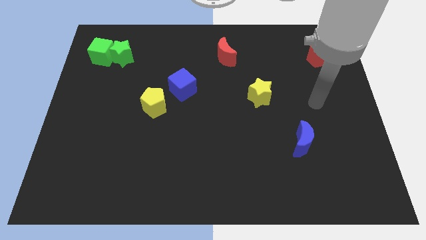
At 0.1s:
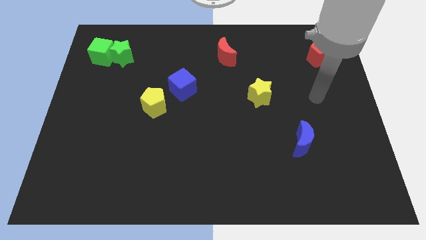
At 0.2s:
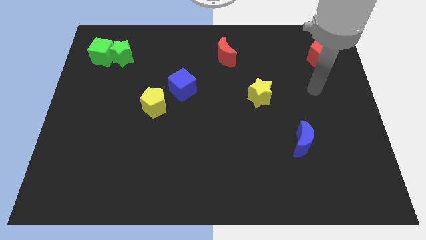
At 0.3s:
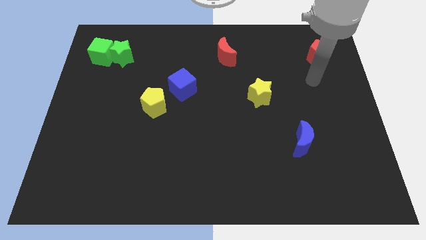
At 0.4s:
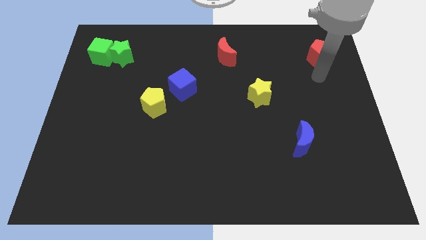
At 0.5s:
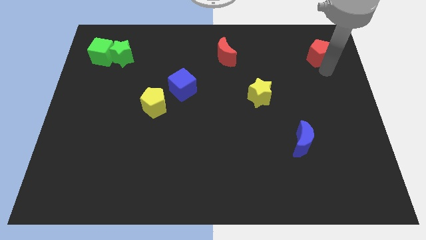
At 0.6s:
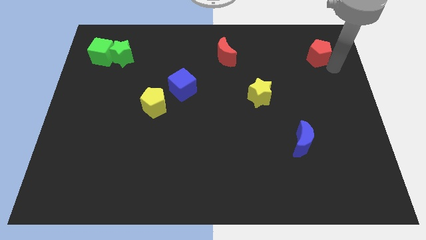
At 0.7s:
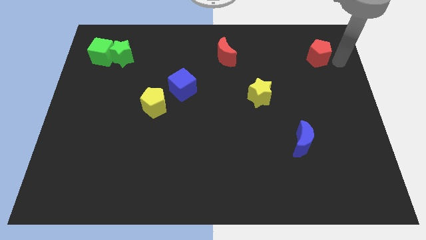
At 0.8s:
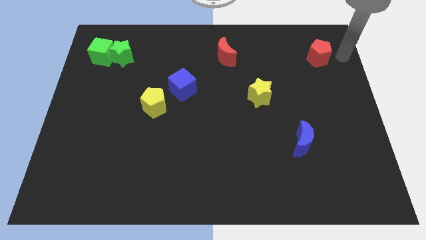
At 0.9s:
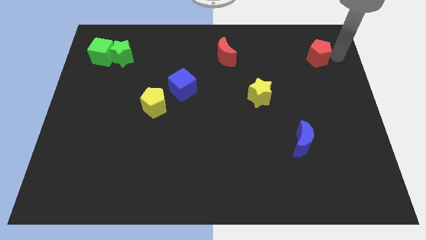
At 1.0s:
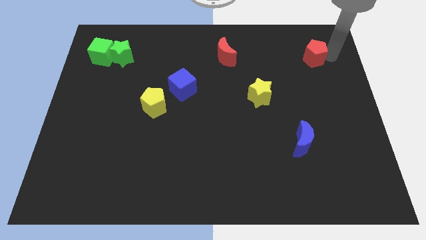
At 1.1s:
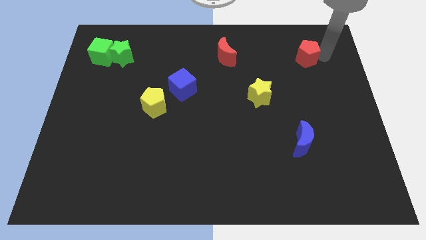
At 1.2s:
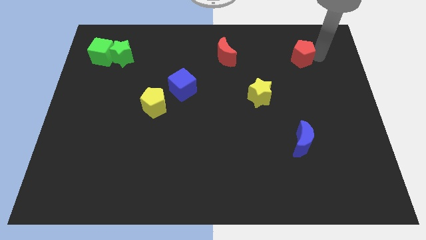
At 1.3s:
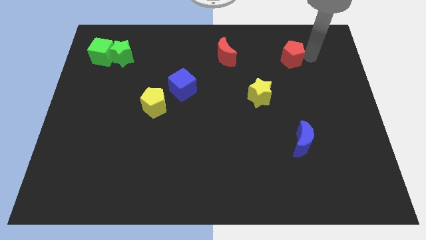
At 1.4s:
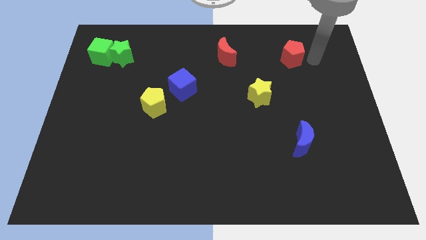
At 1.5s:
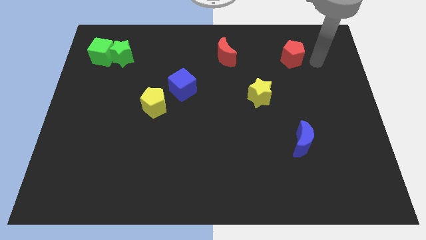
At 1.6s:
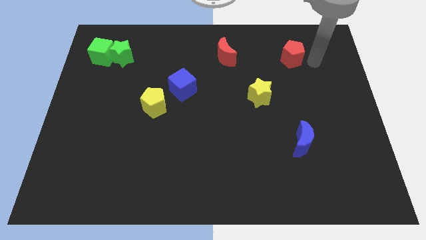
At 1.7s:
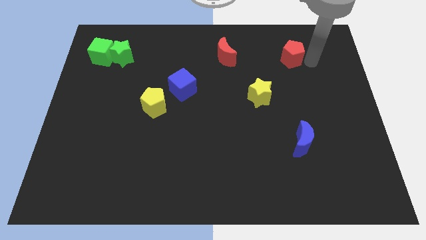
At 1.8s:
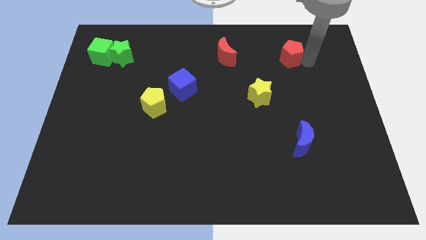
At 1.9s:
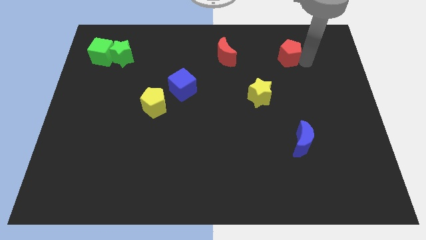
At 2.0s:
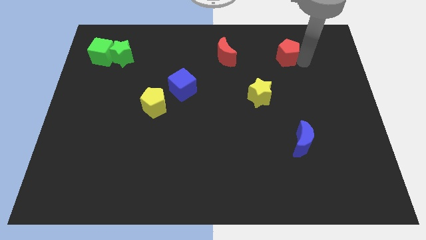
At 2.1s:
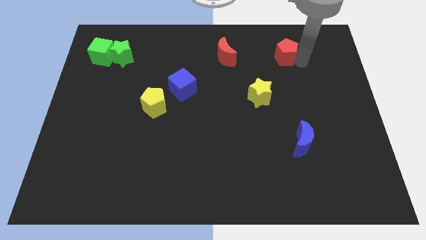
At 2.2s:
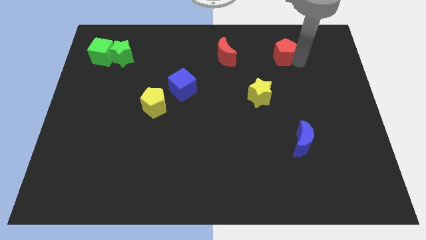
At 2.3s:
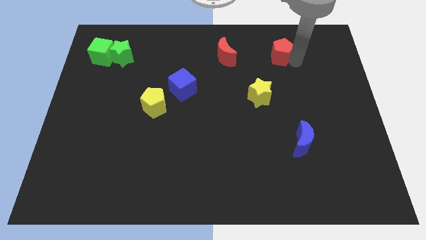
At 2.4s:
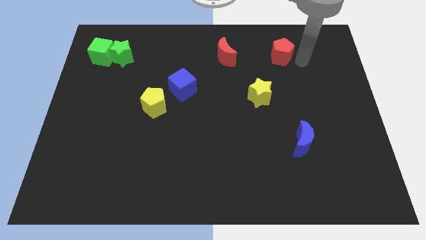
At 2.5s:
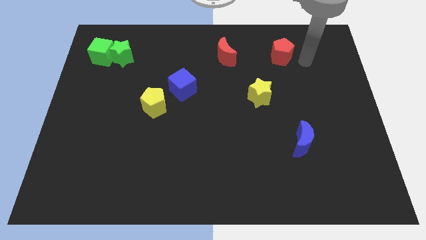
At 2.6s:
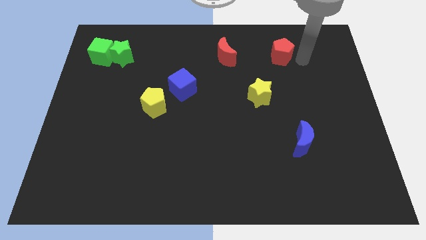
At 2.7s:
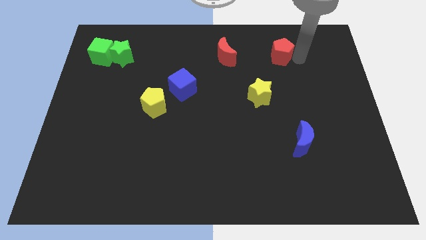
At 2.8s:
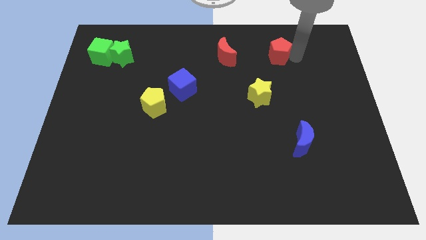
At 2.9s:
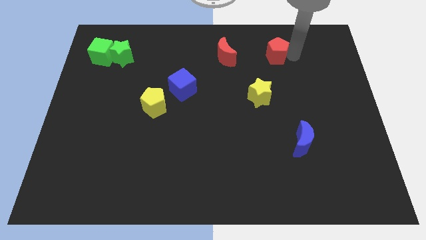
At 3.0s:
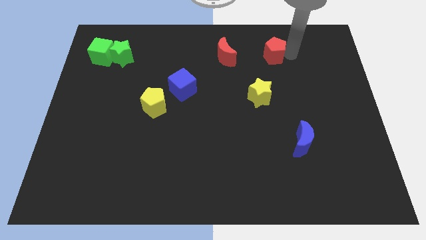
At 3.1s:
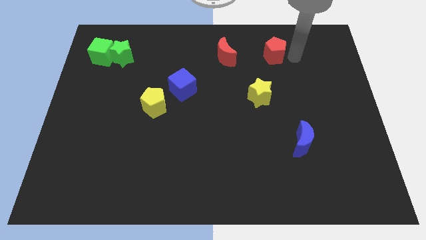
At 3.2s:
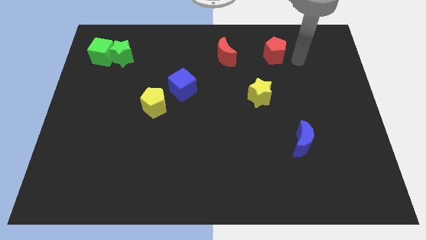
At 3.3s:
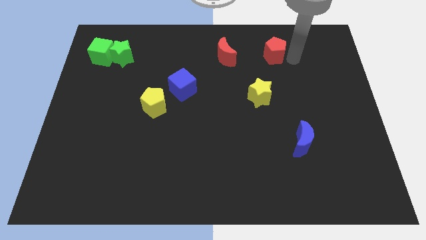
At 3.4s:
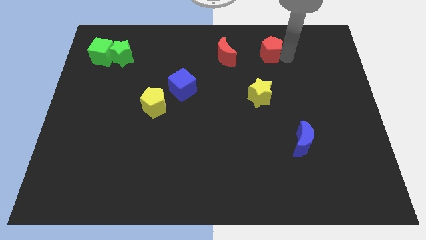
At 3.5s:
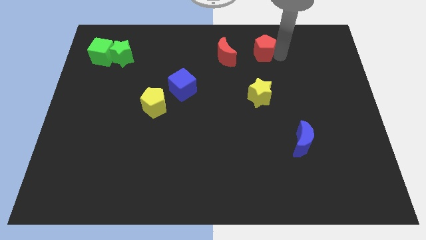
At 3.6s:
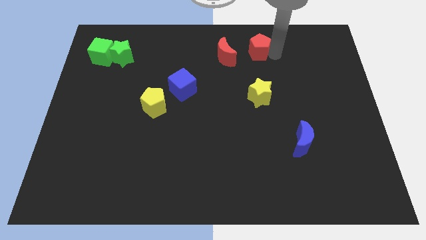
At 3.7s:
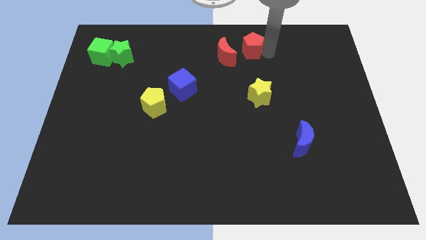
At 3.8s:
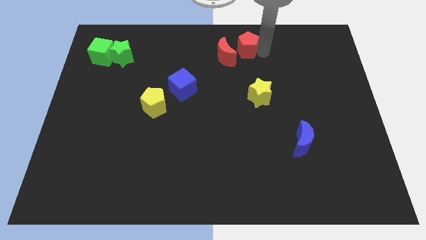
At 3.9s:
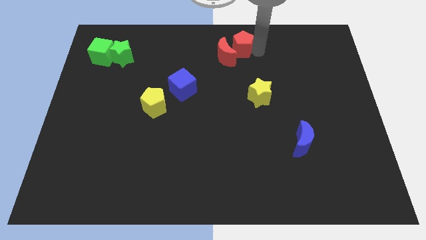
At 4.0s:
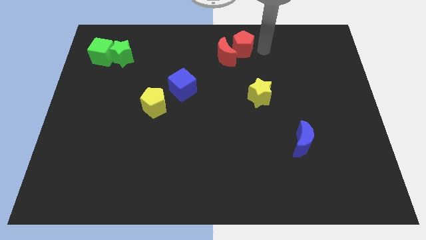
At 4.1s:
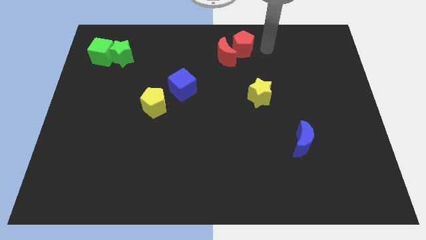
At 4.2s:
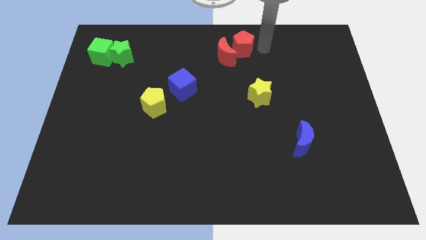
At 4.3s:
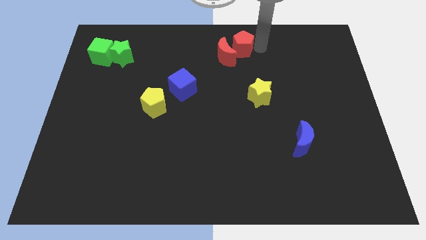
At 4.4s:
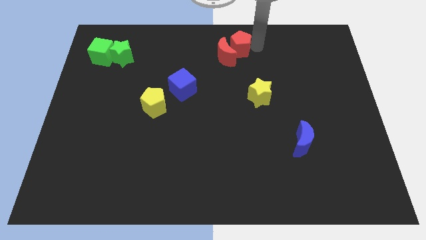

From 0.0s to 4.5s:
move the red pentagon to the left

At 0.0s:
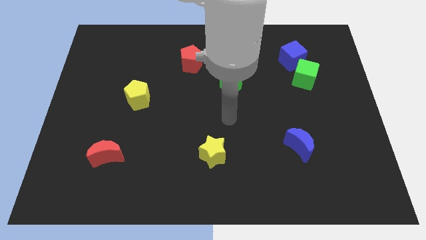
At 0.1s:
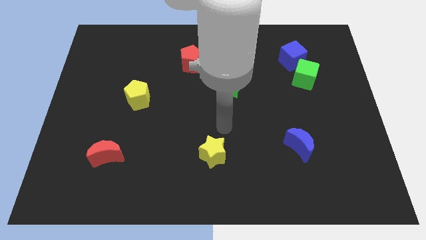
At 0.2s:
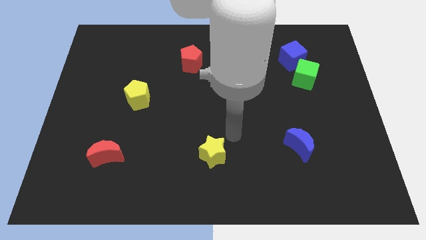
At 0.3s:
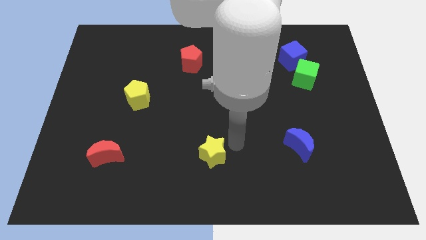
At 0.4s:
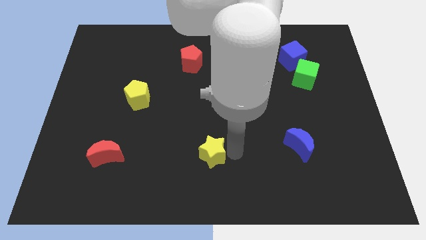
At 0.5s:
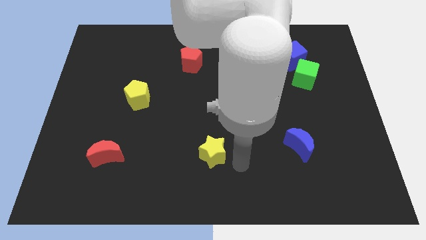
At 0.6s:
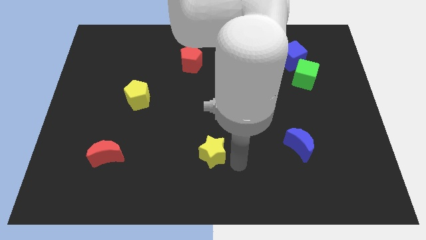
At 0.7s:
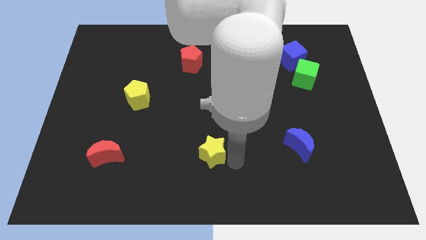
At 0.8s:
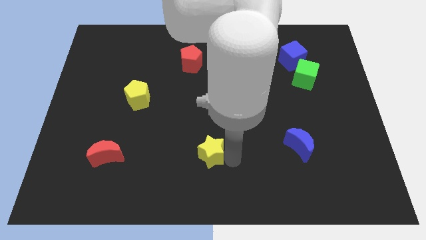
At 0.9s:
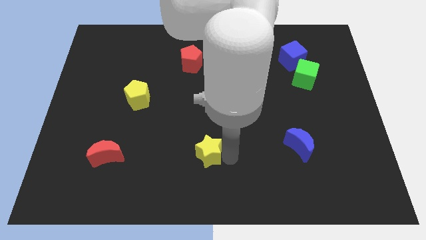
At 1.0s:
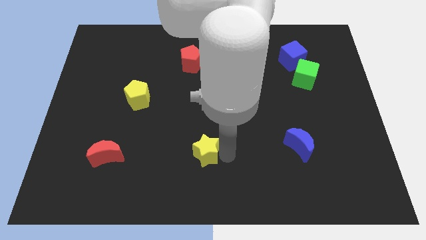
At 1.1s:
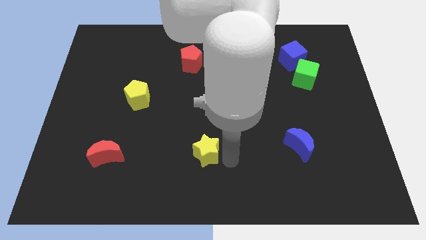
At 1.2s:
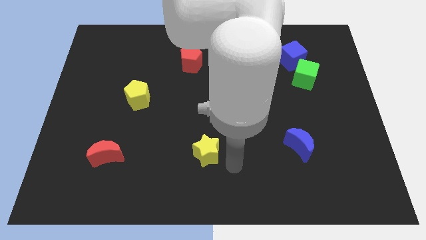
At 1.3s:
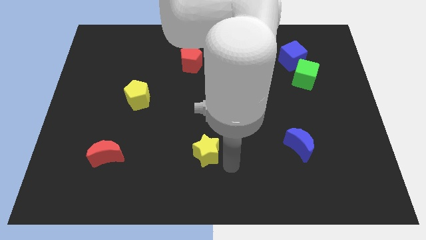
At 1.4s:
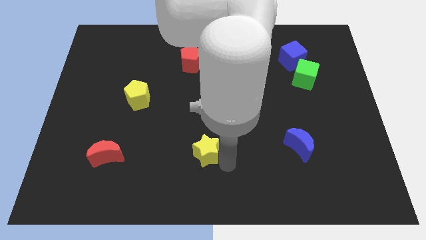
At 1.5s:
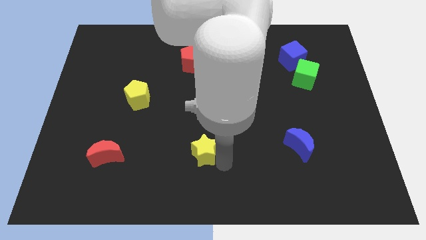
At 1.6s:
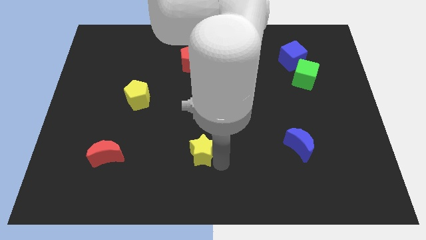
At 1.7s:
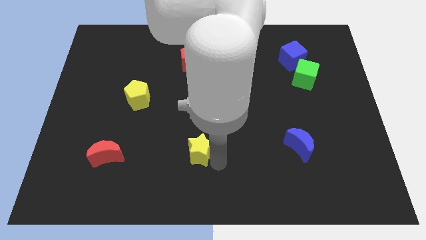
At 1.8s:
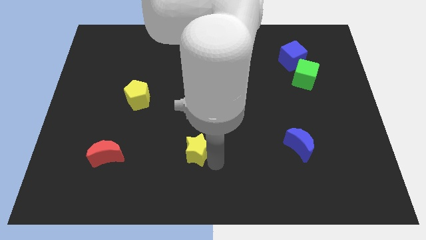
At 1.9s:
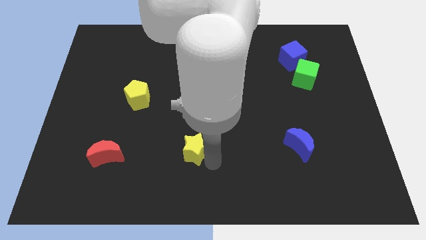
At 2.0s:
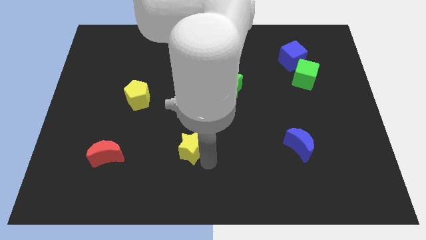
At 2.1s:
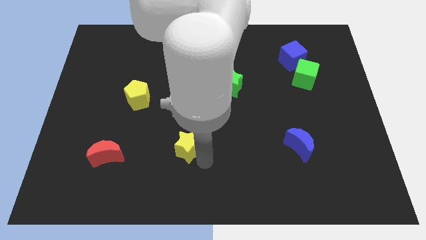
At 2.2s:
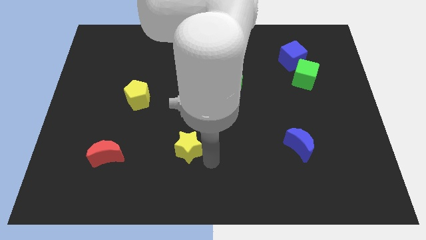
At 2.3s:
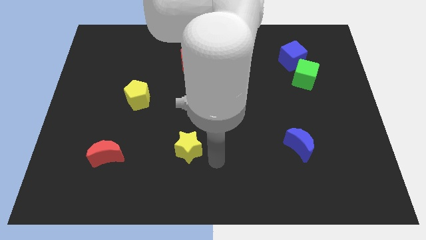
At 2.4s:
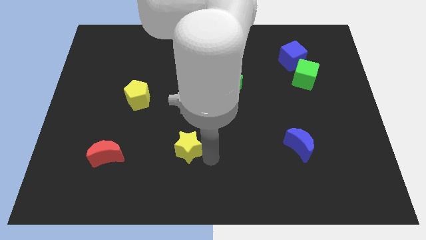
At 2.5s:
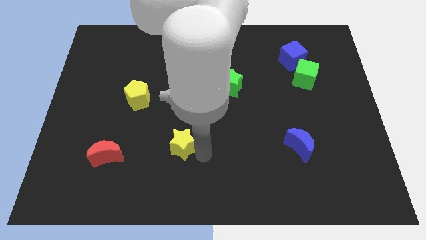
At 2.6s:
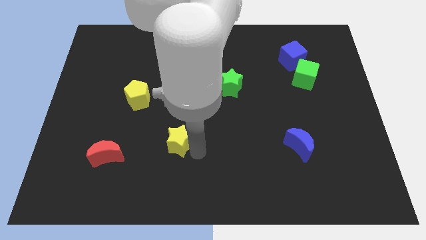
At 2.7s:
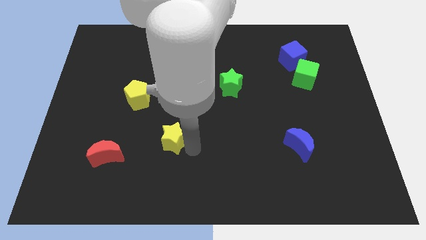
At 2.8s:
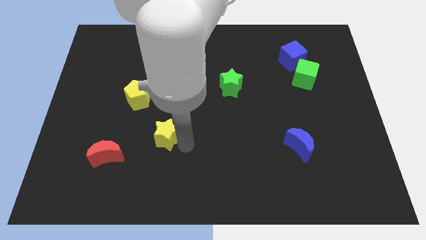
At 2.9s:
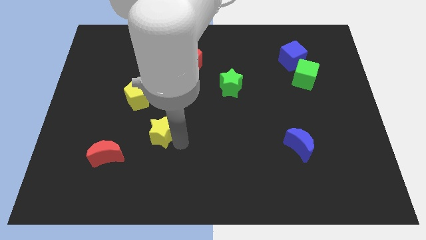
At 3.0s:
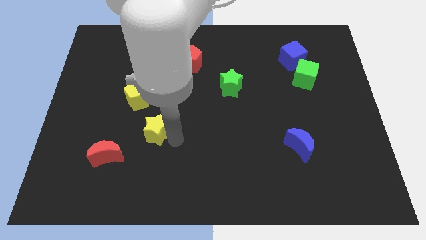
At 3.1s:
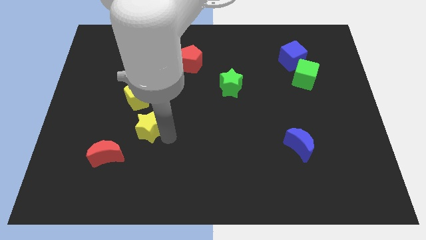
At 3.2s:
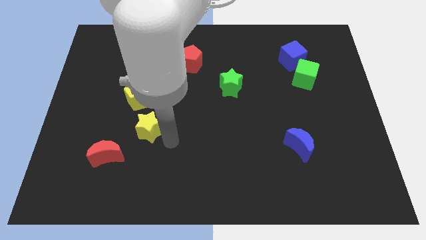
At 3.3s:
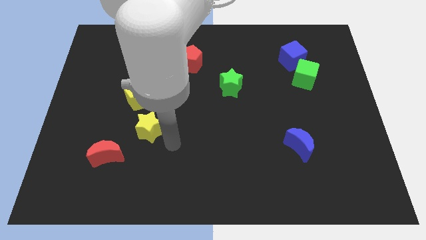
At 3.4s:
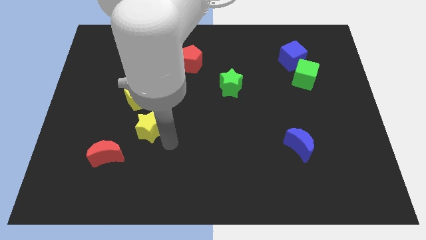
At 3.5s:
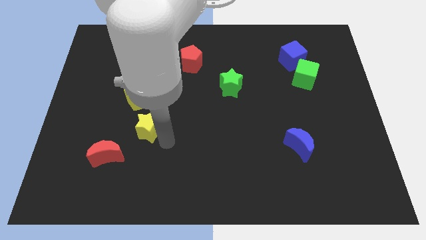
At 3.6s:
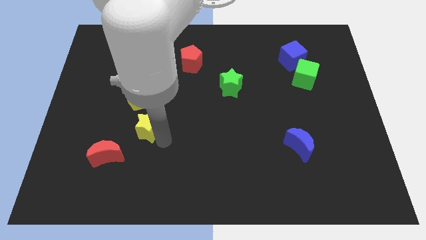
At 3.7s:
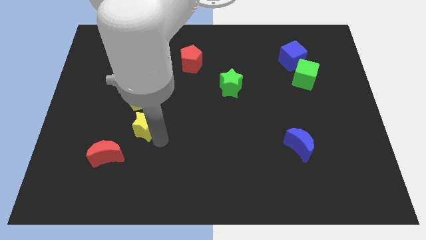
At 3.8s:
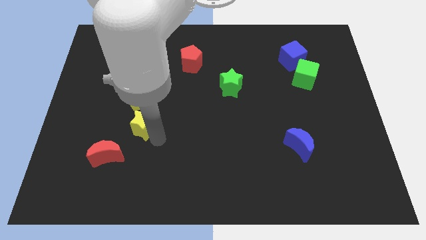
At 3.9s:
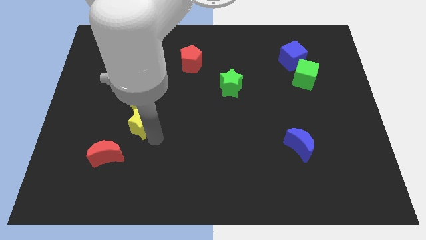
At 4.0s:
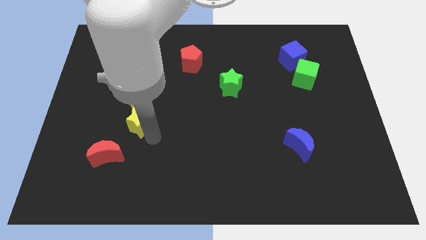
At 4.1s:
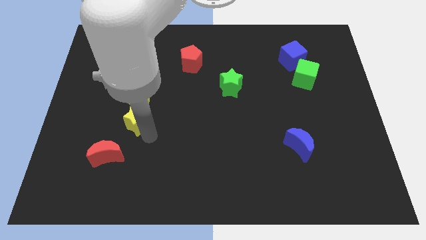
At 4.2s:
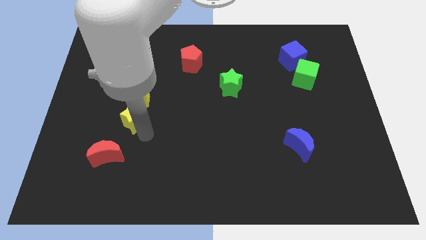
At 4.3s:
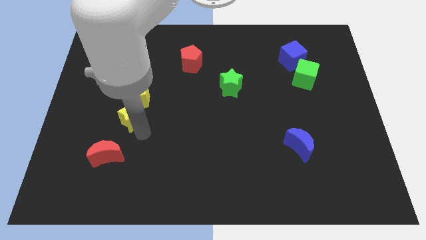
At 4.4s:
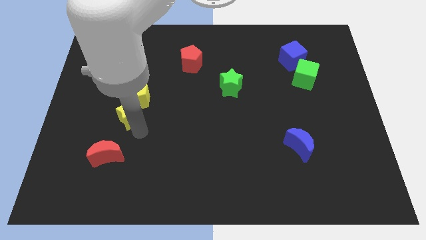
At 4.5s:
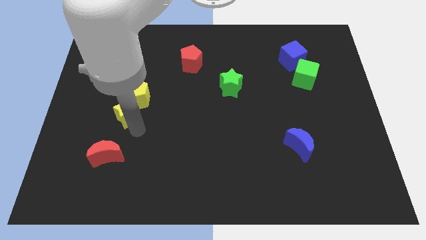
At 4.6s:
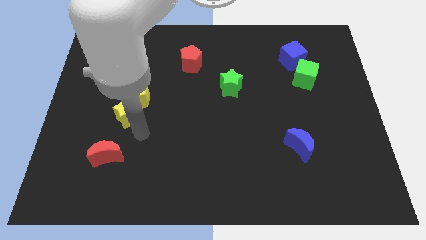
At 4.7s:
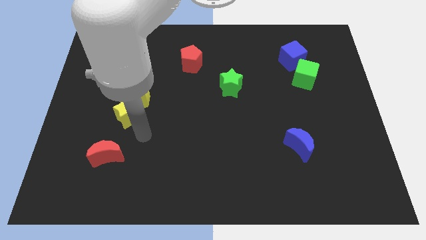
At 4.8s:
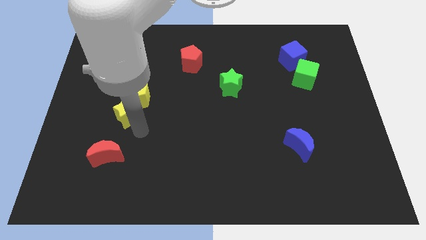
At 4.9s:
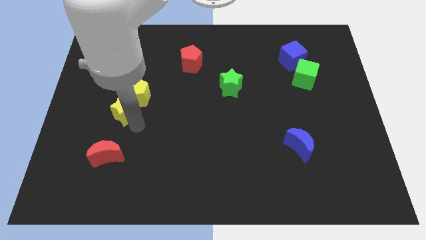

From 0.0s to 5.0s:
move the yellow star upwards and to the left
